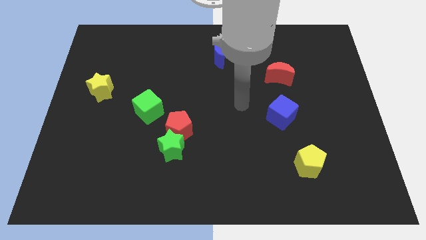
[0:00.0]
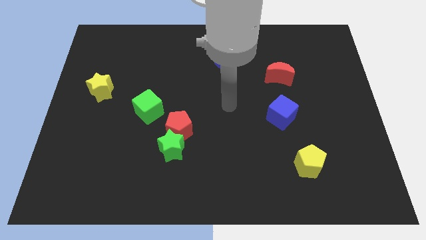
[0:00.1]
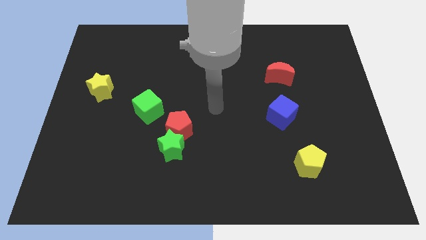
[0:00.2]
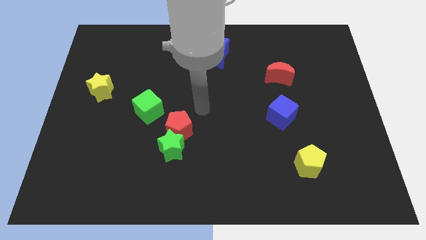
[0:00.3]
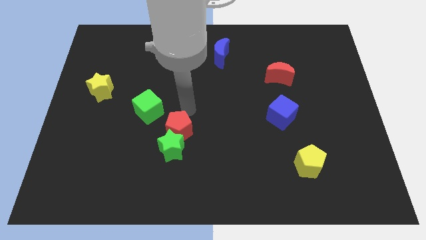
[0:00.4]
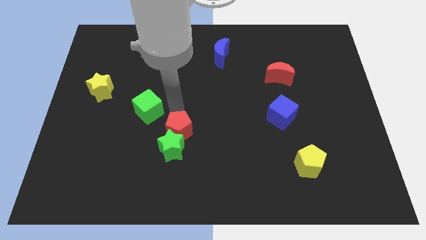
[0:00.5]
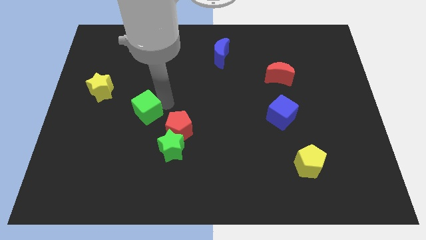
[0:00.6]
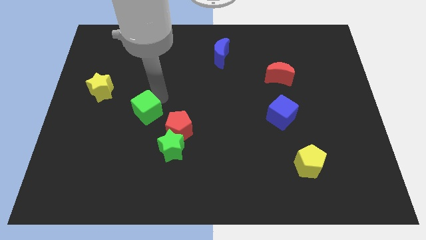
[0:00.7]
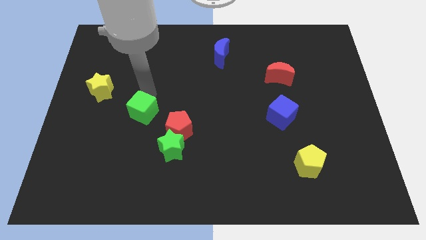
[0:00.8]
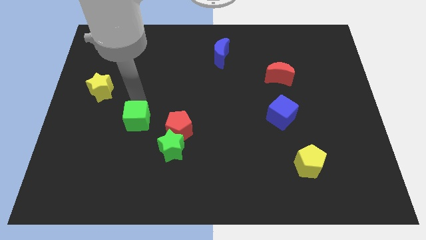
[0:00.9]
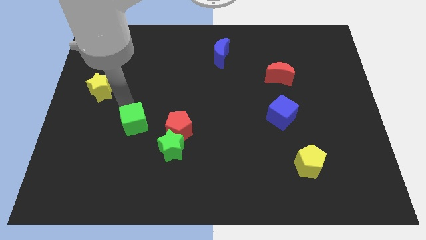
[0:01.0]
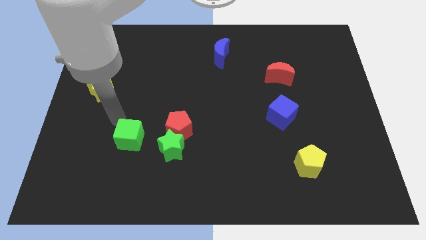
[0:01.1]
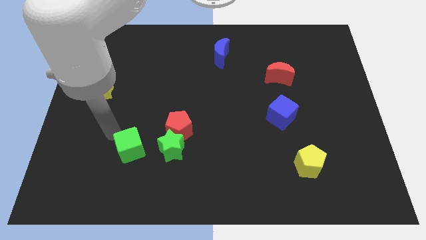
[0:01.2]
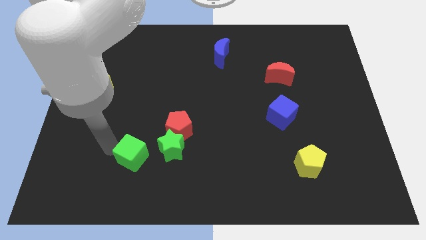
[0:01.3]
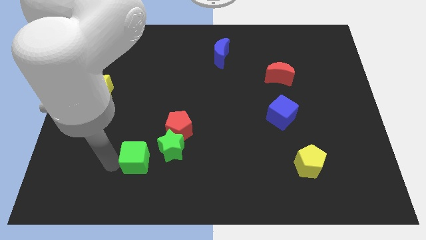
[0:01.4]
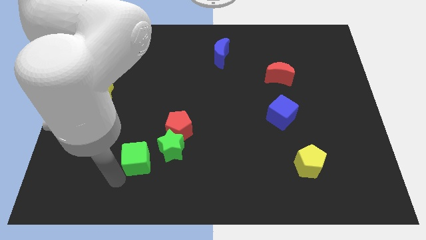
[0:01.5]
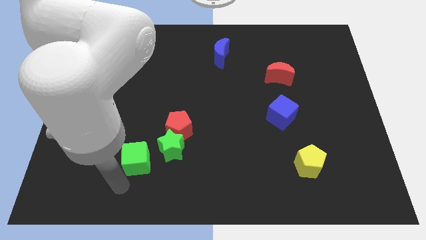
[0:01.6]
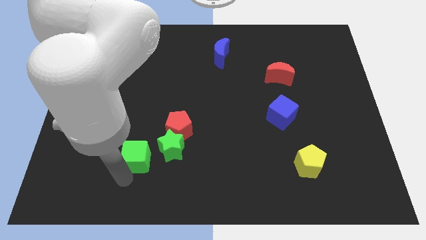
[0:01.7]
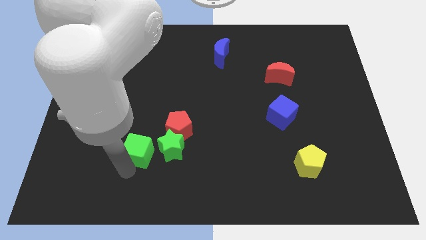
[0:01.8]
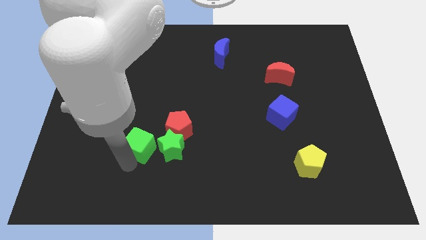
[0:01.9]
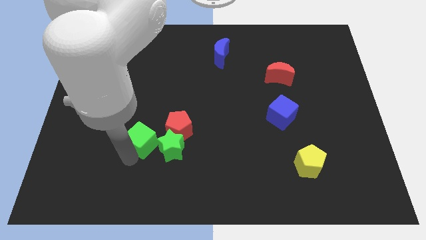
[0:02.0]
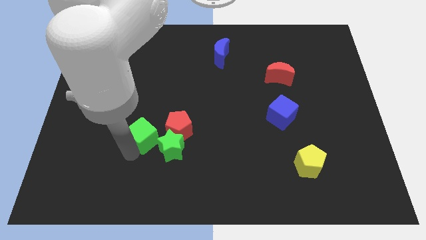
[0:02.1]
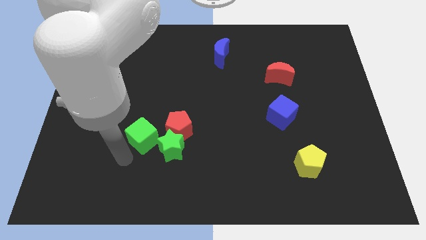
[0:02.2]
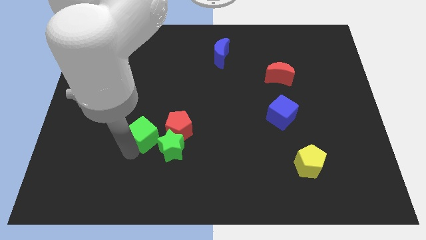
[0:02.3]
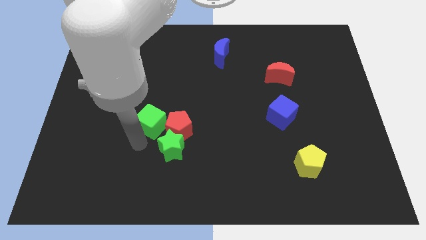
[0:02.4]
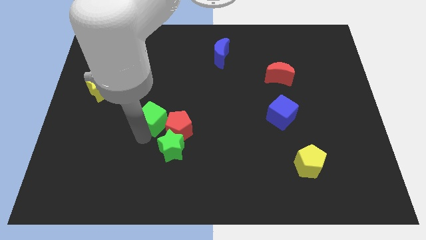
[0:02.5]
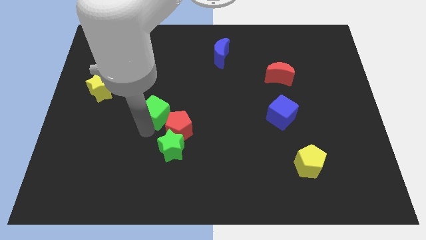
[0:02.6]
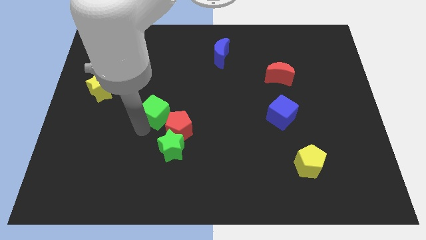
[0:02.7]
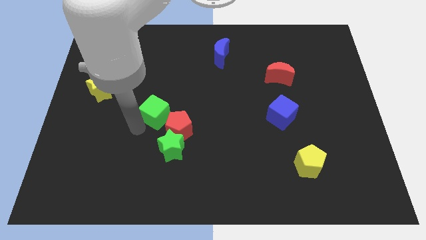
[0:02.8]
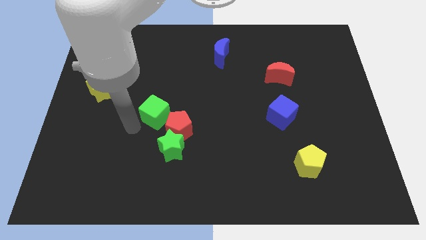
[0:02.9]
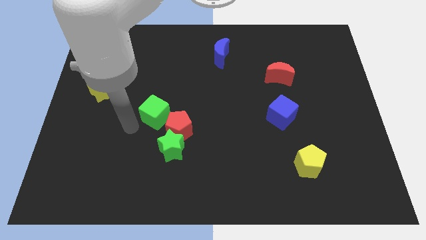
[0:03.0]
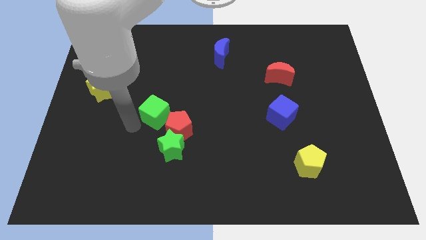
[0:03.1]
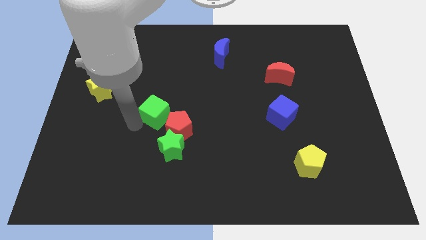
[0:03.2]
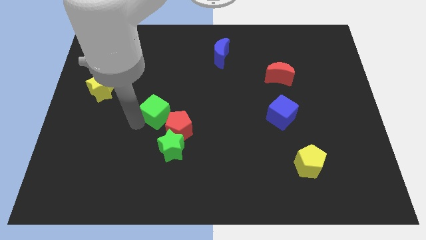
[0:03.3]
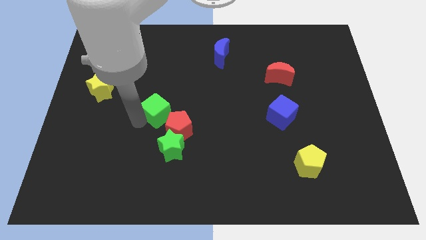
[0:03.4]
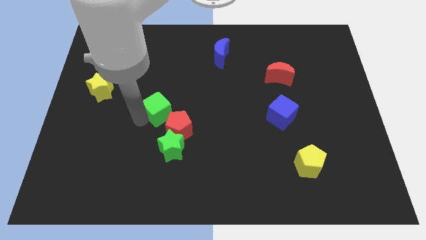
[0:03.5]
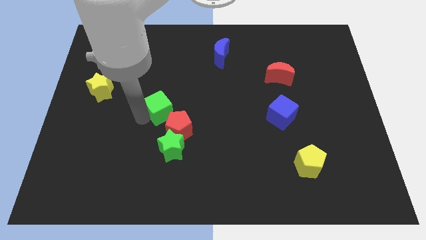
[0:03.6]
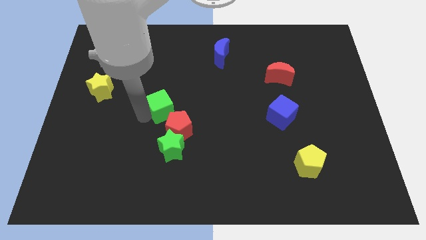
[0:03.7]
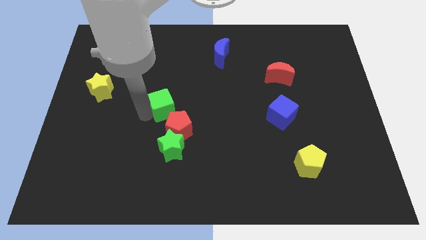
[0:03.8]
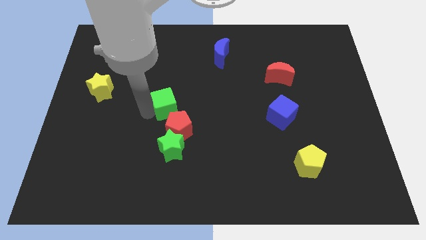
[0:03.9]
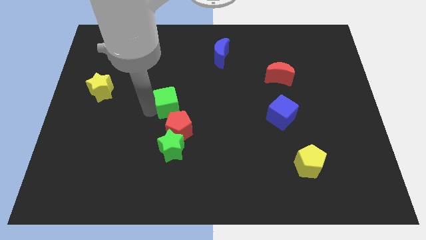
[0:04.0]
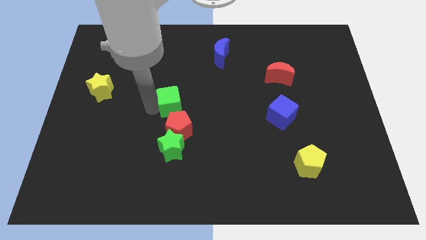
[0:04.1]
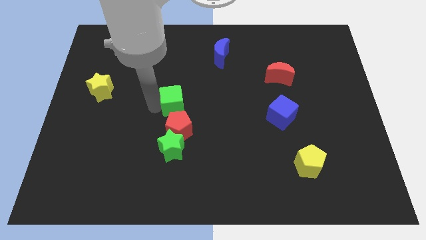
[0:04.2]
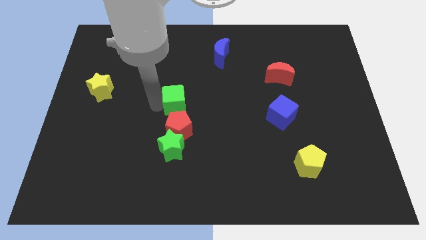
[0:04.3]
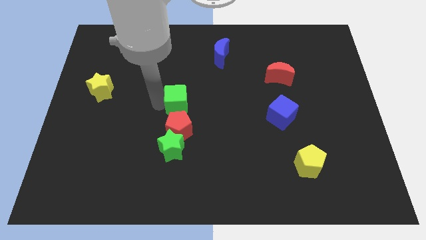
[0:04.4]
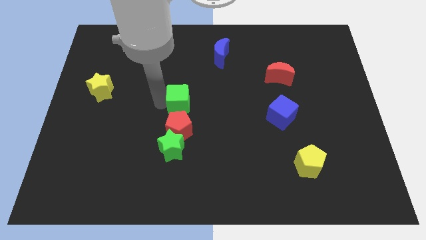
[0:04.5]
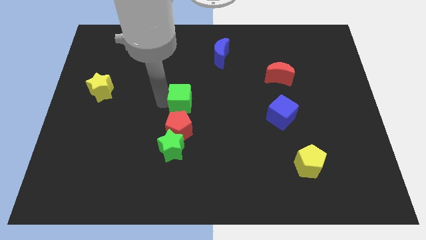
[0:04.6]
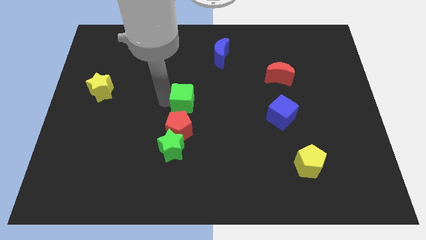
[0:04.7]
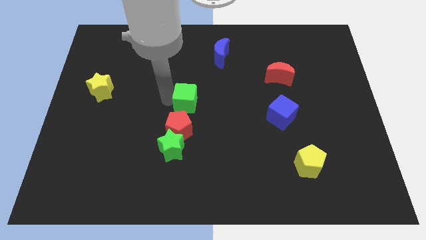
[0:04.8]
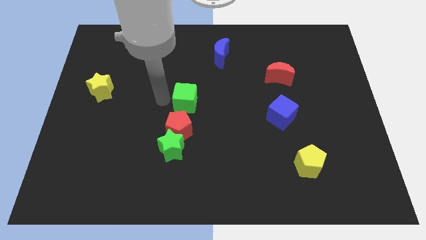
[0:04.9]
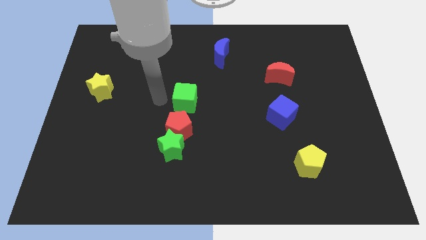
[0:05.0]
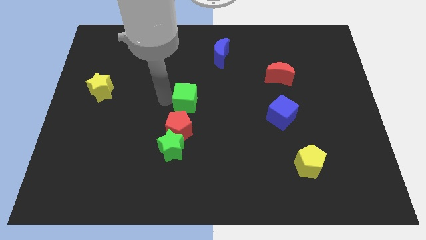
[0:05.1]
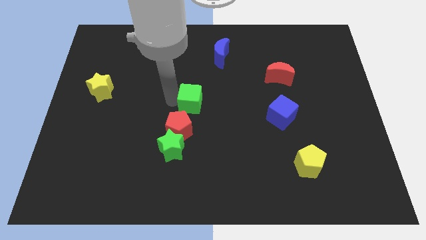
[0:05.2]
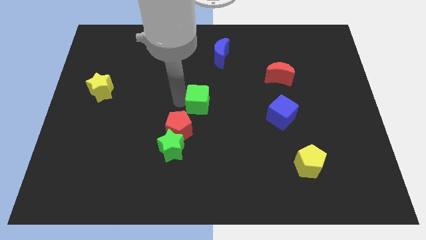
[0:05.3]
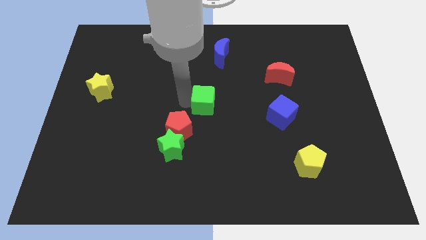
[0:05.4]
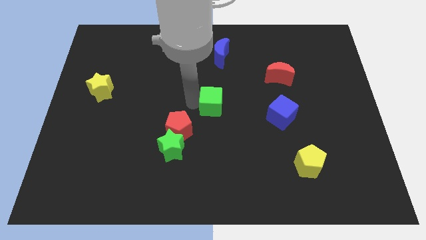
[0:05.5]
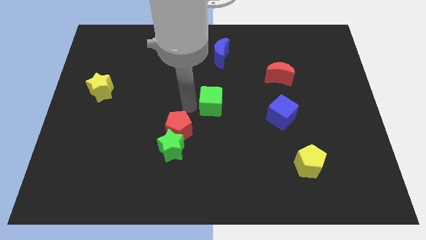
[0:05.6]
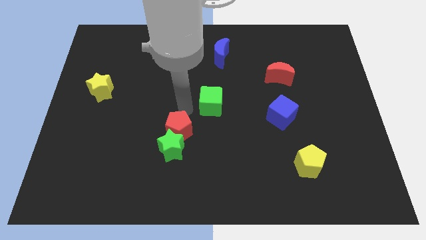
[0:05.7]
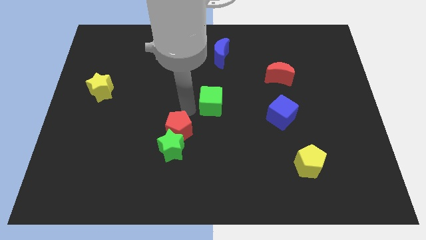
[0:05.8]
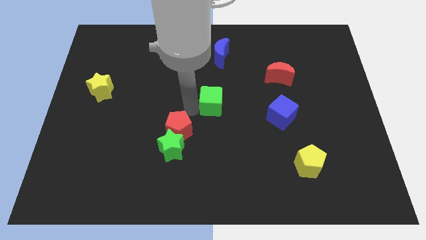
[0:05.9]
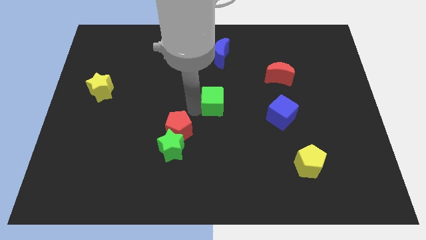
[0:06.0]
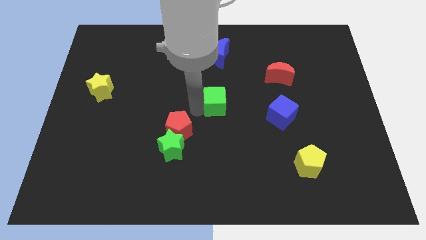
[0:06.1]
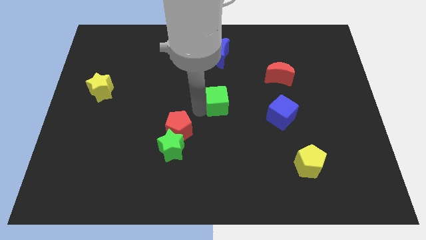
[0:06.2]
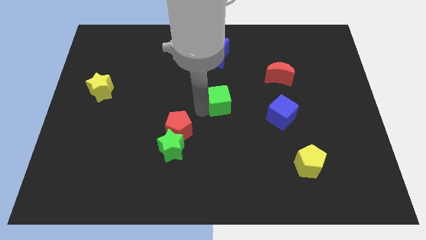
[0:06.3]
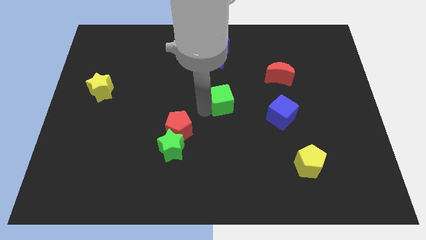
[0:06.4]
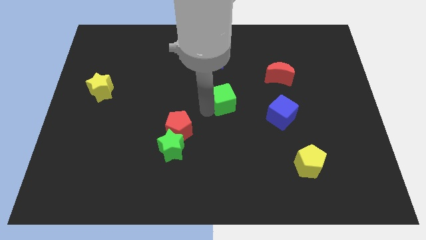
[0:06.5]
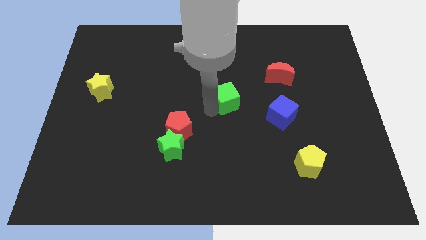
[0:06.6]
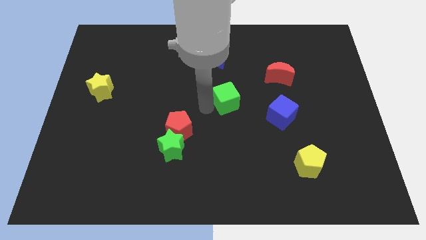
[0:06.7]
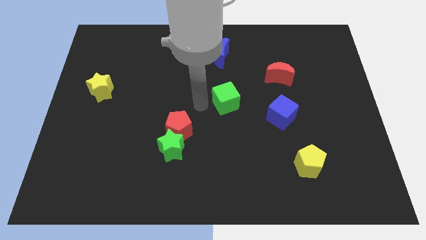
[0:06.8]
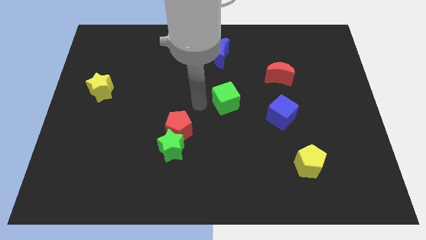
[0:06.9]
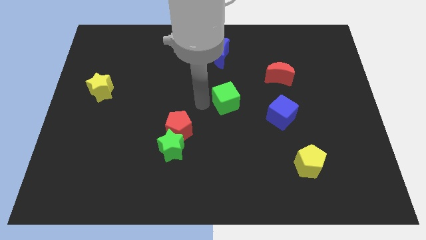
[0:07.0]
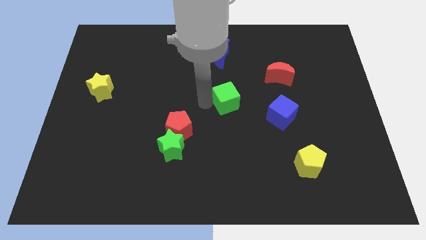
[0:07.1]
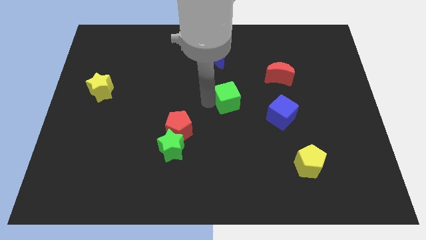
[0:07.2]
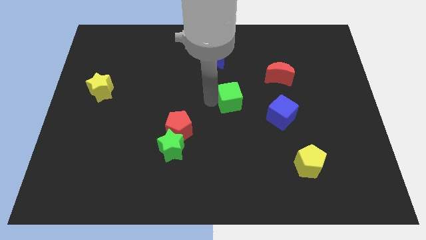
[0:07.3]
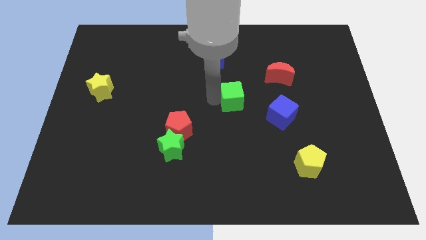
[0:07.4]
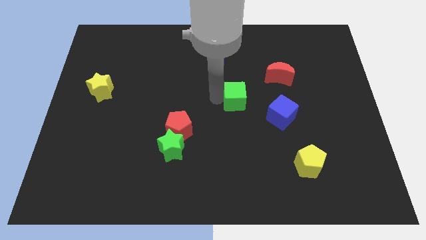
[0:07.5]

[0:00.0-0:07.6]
slide the green cube to the top left of the blue cube

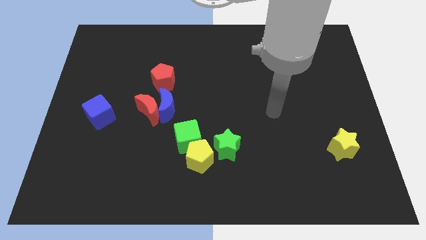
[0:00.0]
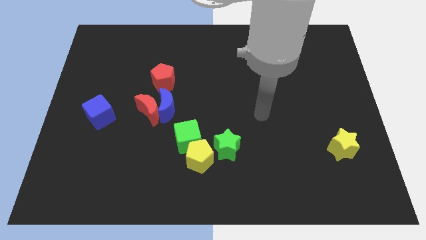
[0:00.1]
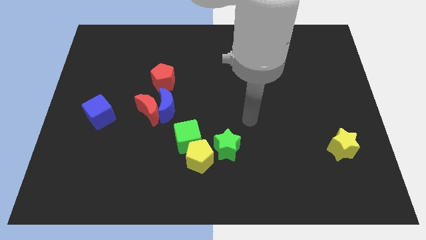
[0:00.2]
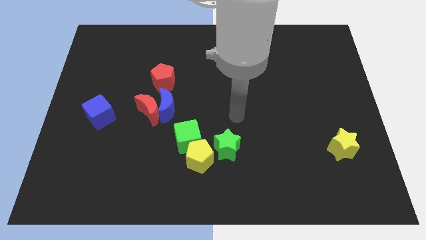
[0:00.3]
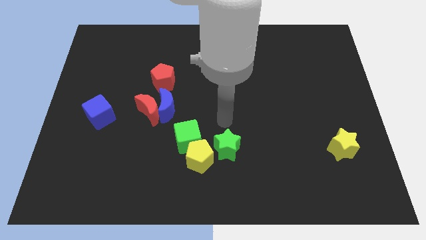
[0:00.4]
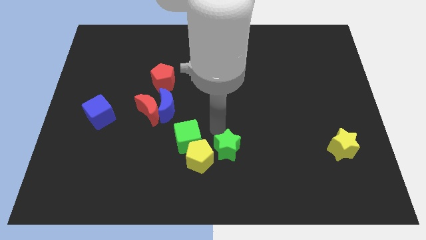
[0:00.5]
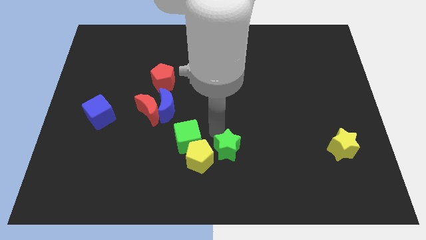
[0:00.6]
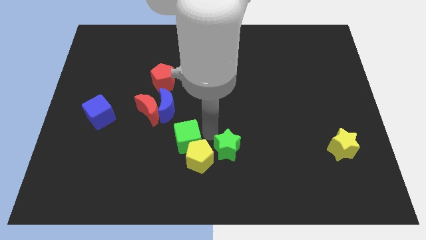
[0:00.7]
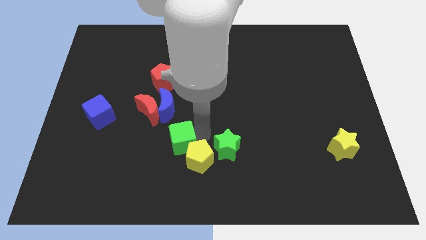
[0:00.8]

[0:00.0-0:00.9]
slide the green cube to the bottom side of the blue moon

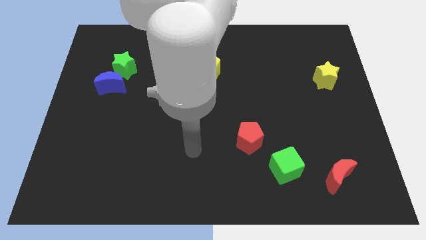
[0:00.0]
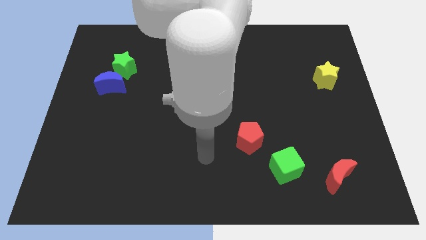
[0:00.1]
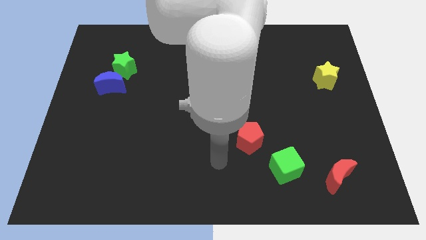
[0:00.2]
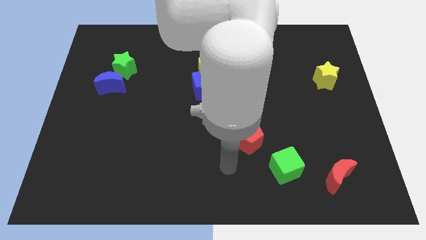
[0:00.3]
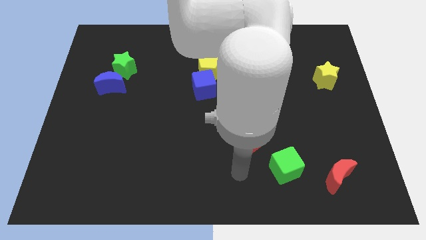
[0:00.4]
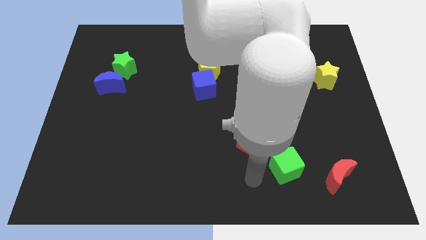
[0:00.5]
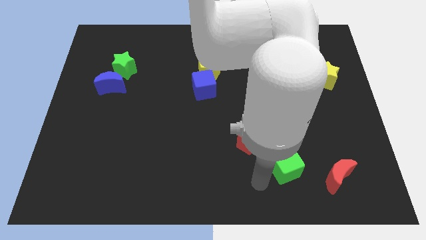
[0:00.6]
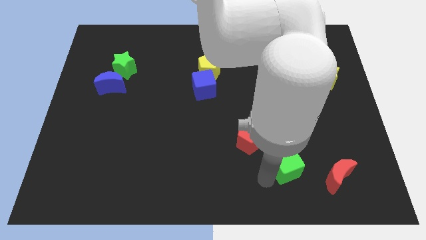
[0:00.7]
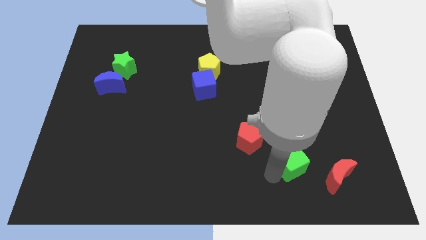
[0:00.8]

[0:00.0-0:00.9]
slide the green cube to the top left side of the red moon
